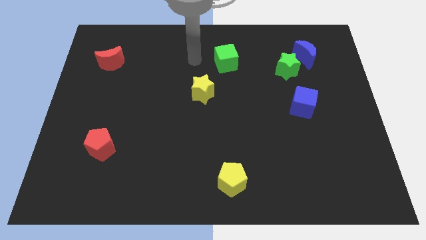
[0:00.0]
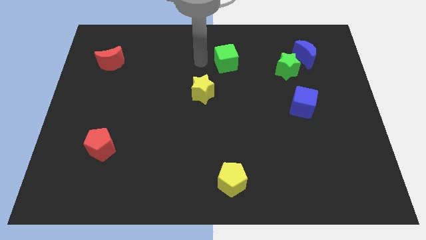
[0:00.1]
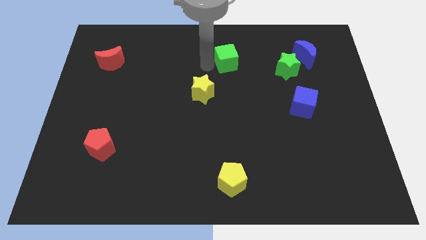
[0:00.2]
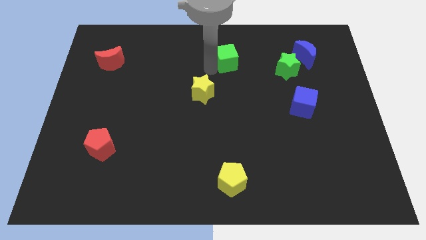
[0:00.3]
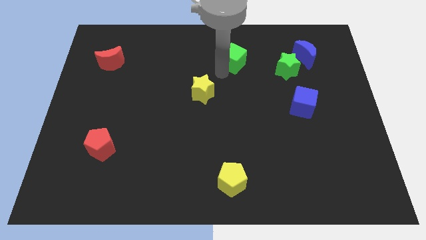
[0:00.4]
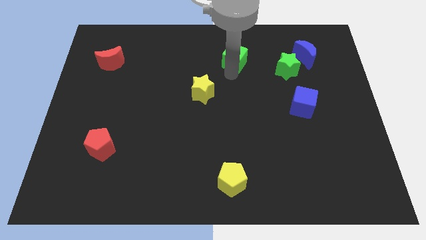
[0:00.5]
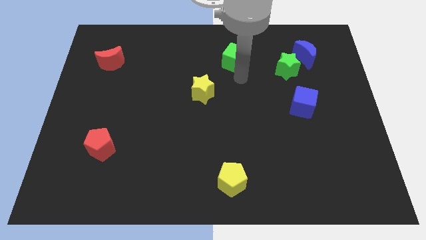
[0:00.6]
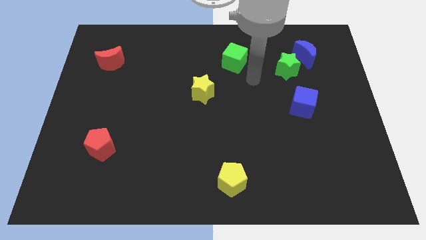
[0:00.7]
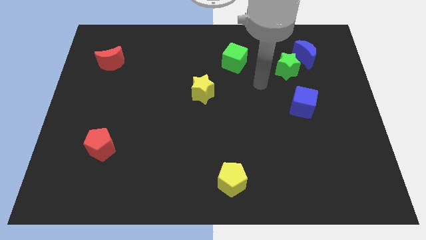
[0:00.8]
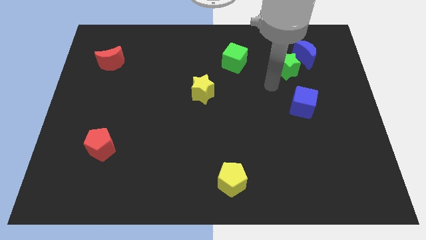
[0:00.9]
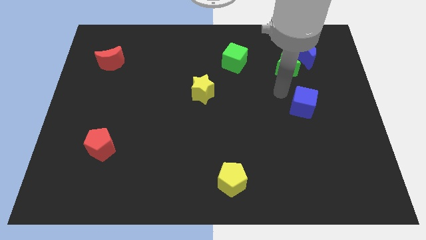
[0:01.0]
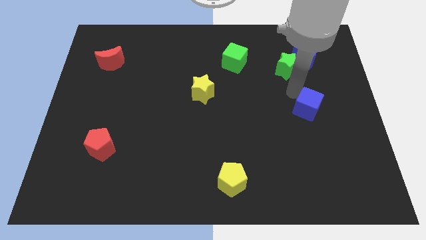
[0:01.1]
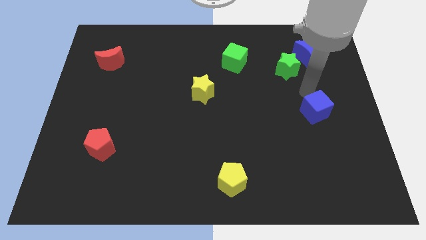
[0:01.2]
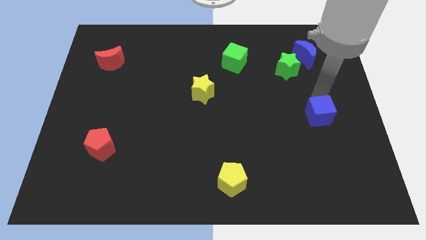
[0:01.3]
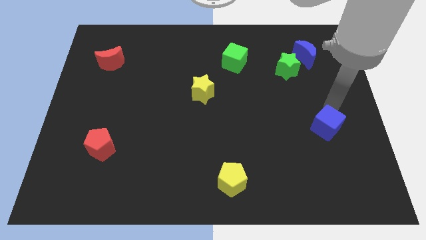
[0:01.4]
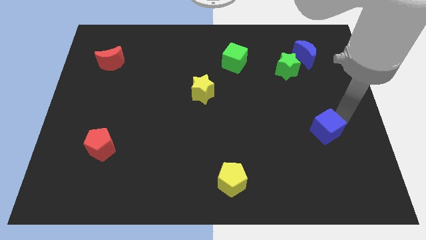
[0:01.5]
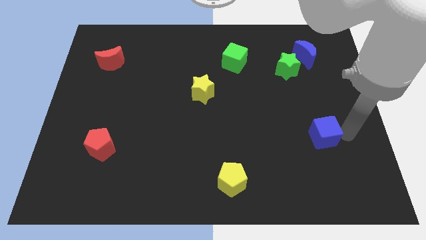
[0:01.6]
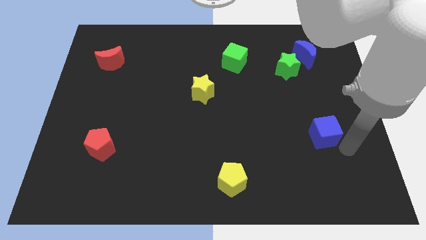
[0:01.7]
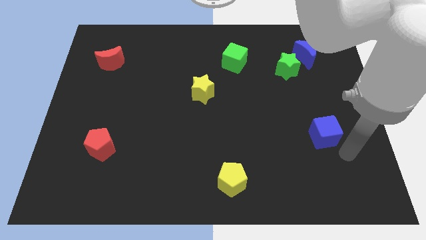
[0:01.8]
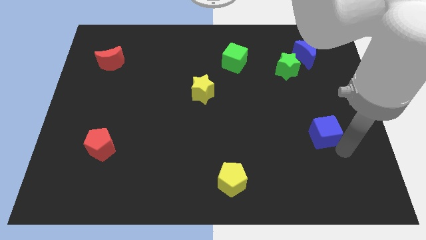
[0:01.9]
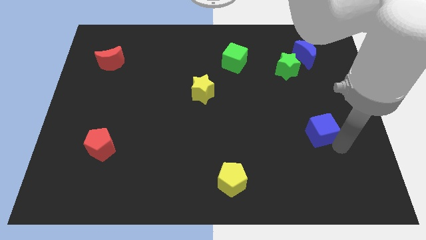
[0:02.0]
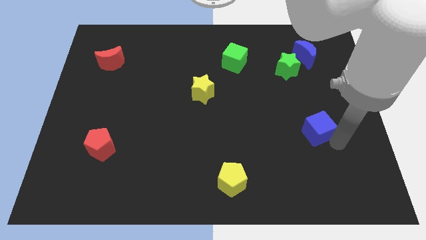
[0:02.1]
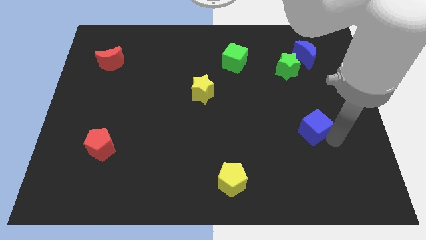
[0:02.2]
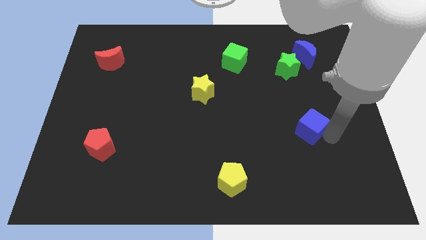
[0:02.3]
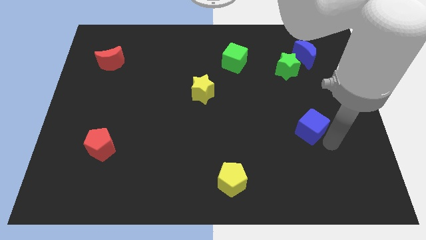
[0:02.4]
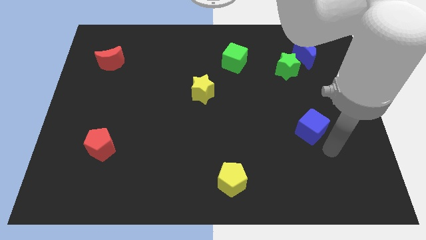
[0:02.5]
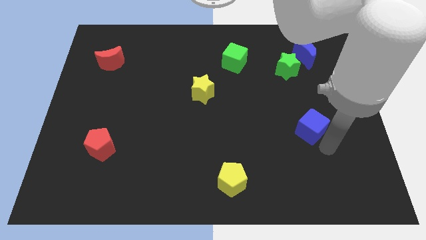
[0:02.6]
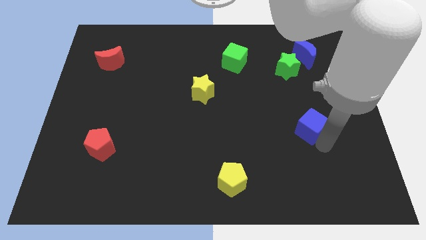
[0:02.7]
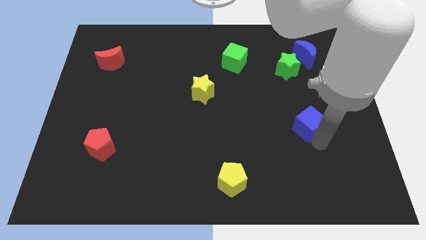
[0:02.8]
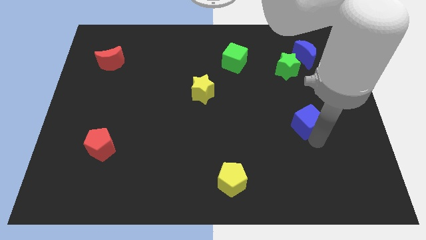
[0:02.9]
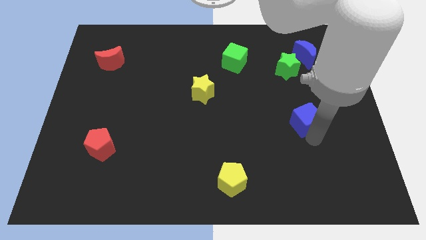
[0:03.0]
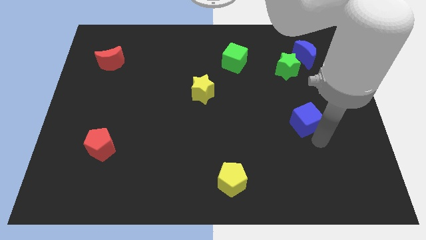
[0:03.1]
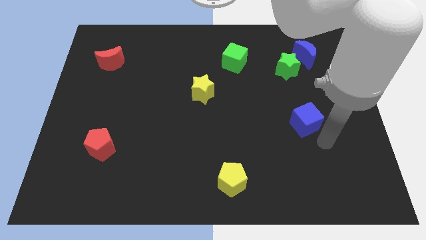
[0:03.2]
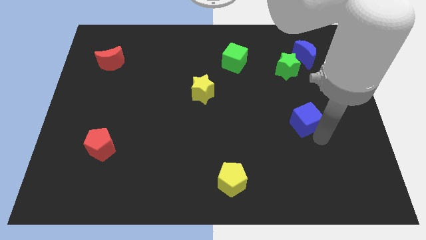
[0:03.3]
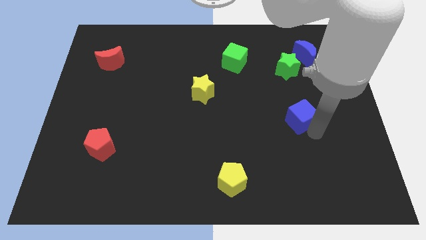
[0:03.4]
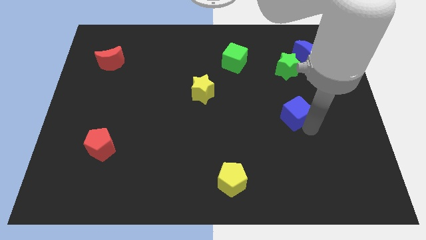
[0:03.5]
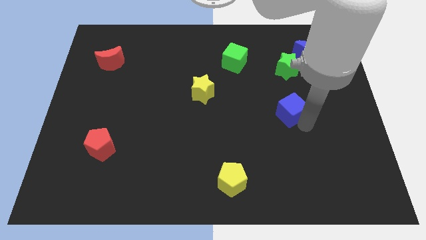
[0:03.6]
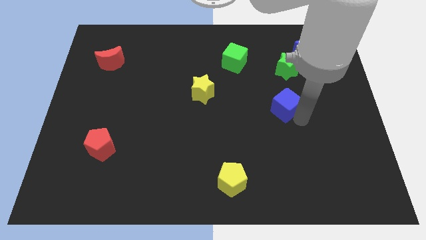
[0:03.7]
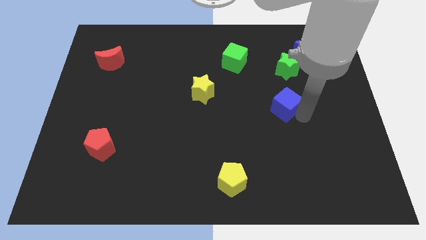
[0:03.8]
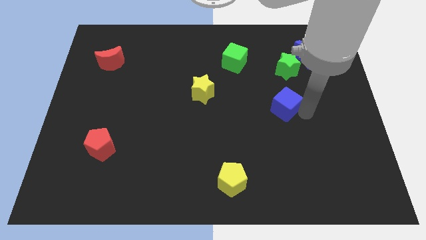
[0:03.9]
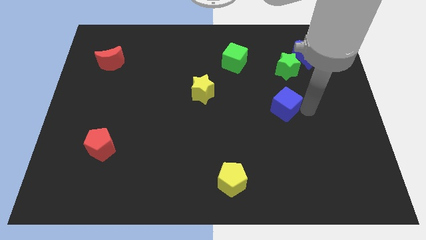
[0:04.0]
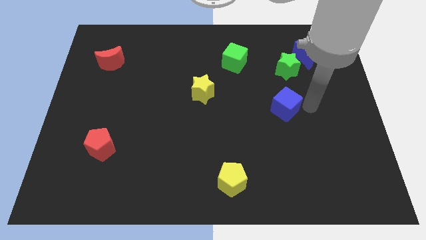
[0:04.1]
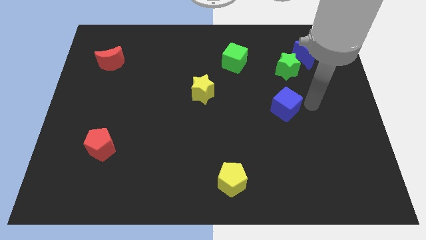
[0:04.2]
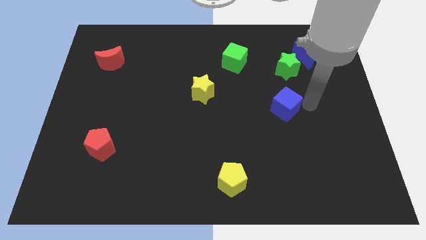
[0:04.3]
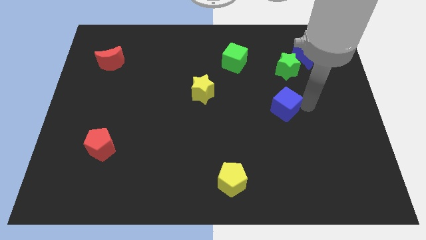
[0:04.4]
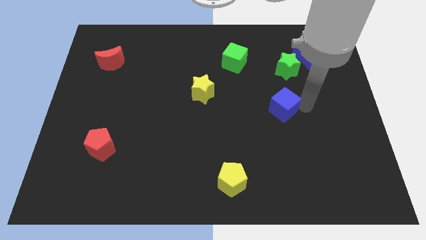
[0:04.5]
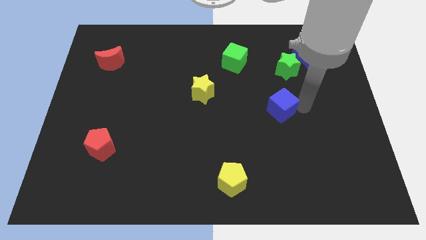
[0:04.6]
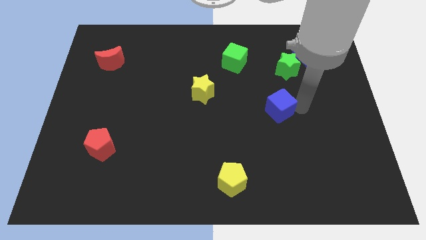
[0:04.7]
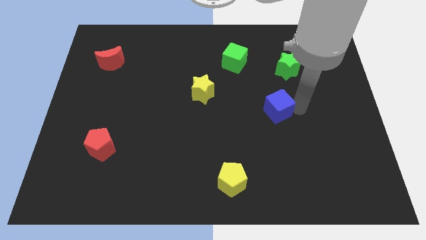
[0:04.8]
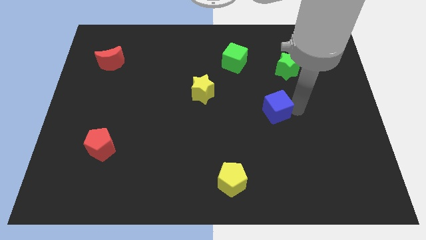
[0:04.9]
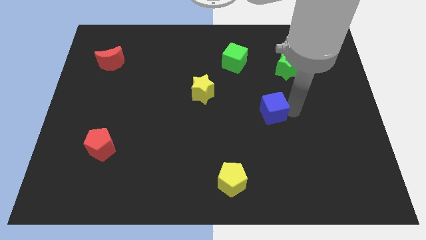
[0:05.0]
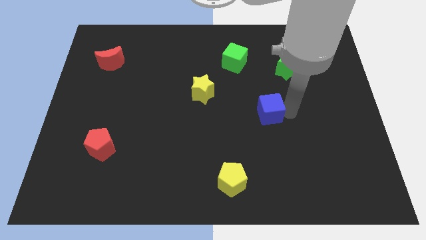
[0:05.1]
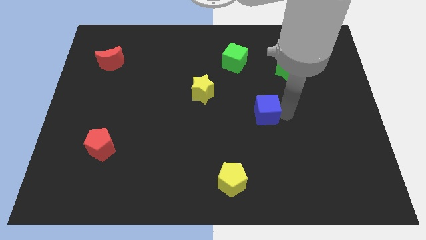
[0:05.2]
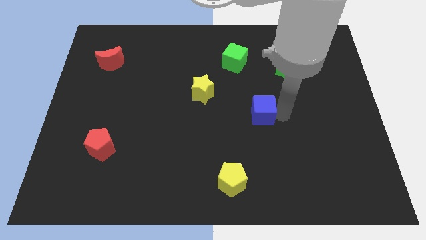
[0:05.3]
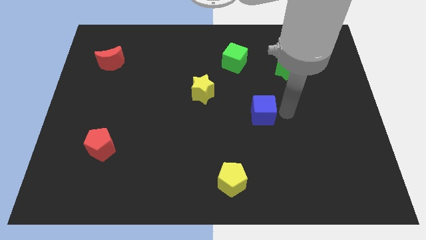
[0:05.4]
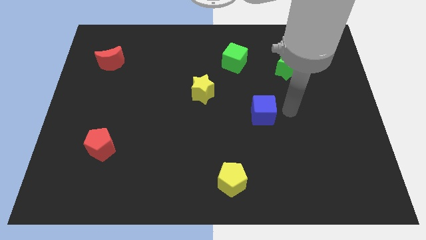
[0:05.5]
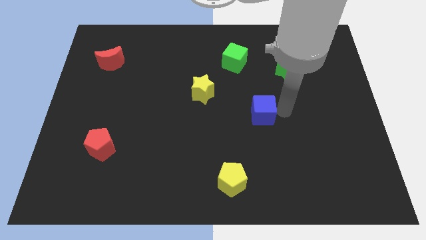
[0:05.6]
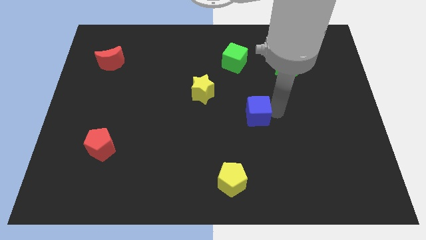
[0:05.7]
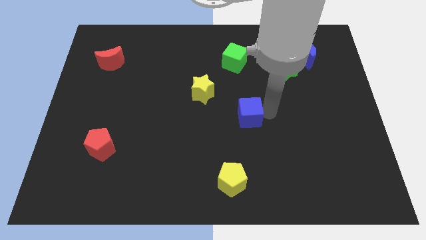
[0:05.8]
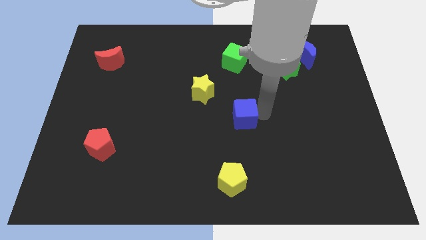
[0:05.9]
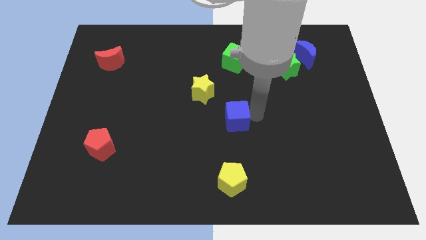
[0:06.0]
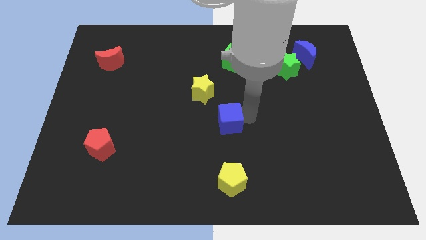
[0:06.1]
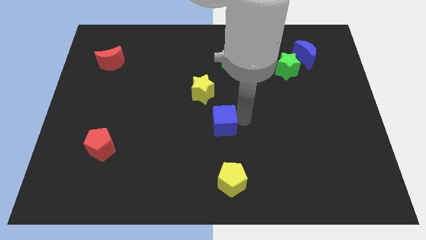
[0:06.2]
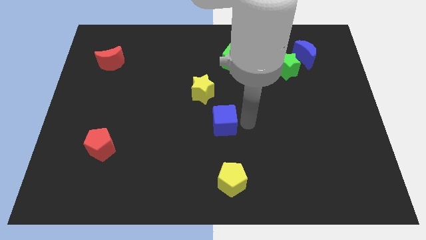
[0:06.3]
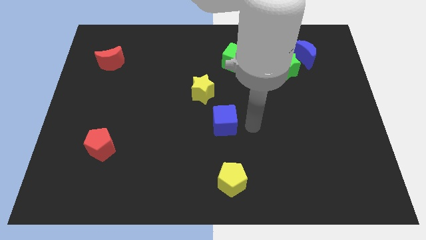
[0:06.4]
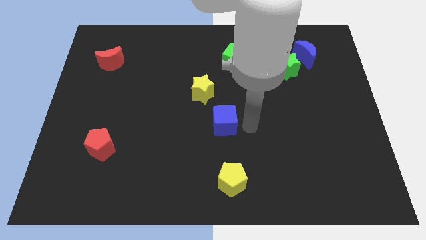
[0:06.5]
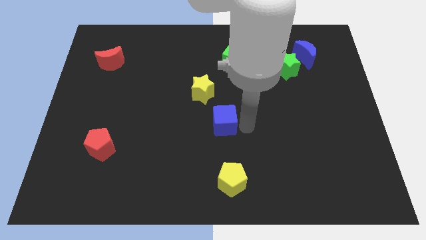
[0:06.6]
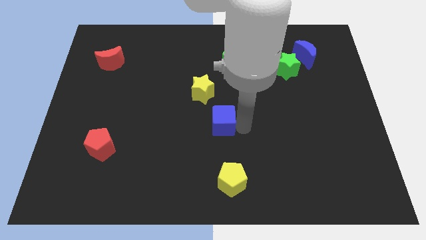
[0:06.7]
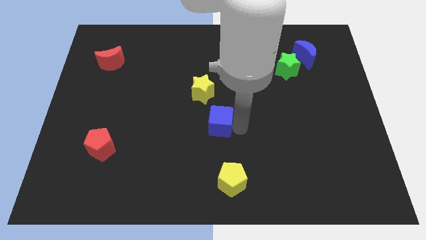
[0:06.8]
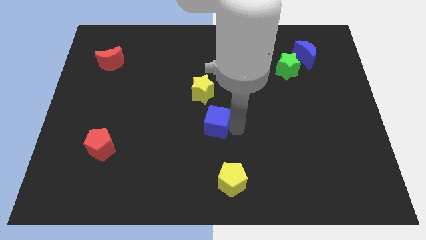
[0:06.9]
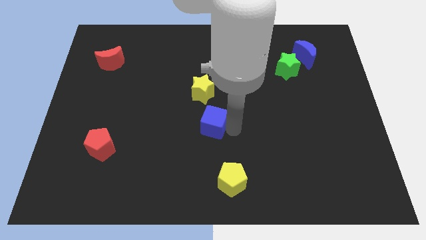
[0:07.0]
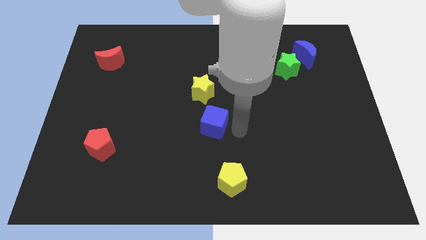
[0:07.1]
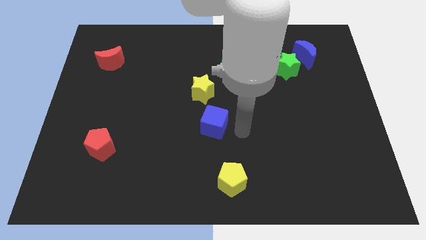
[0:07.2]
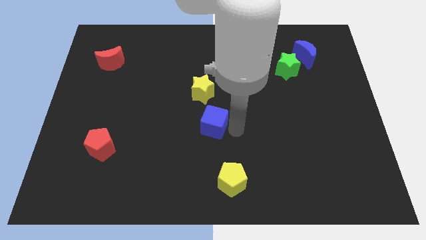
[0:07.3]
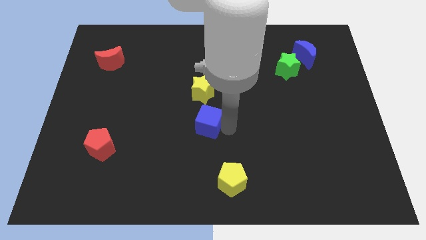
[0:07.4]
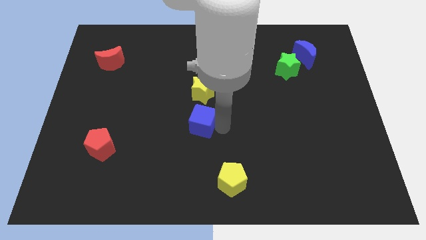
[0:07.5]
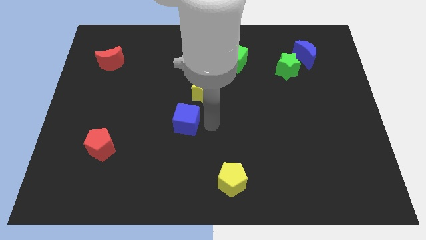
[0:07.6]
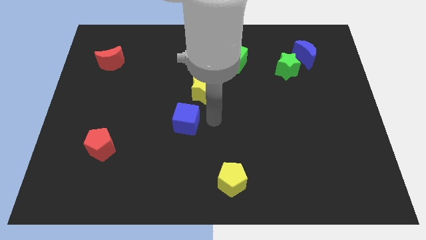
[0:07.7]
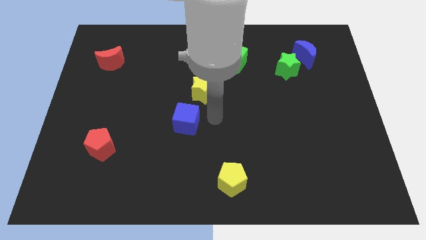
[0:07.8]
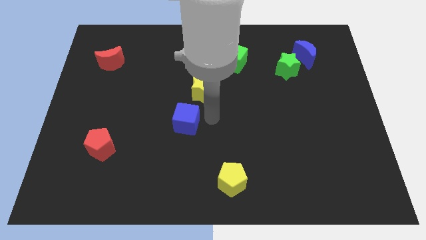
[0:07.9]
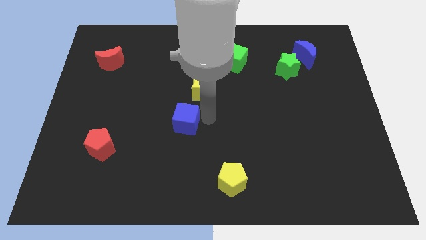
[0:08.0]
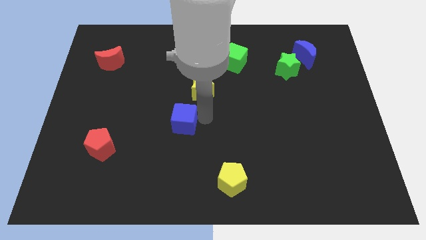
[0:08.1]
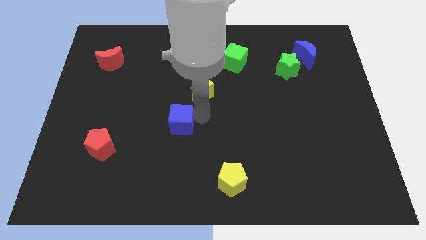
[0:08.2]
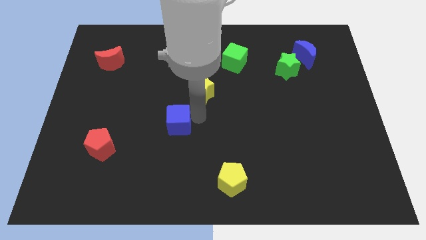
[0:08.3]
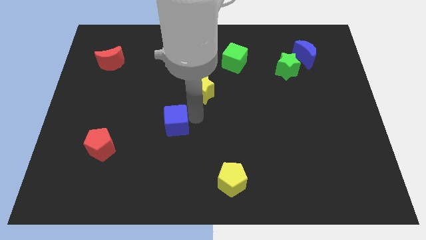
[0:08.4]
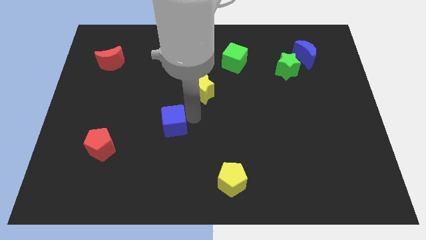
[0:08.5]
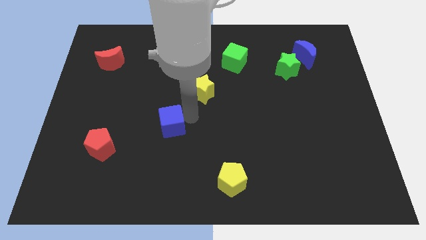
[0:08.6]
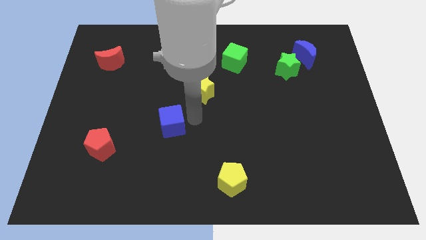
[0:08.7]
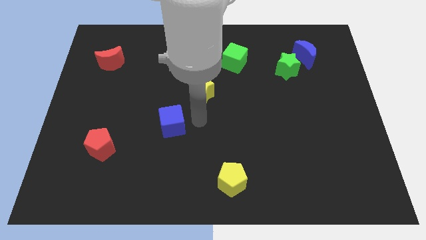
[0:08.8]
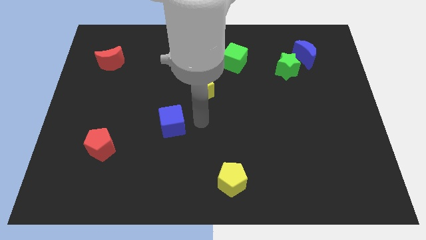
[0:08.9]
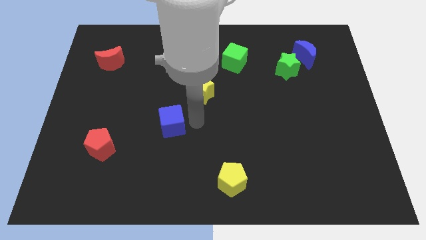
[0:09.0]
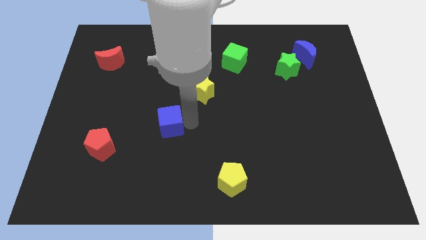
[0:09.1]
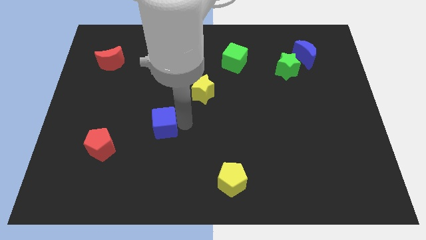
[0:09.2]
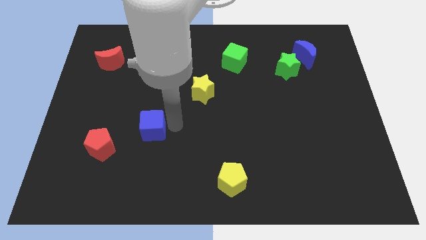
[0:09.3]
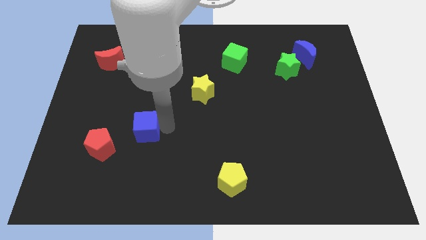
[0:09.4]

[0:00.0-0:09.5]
slide the blue cube to the top right side of the red pentagon
